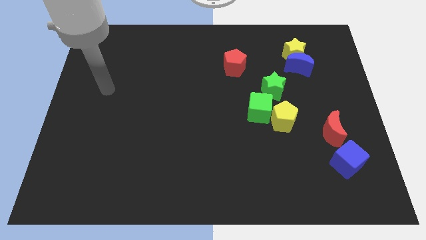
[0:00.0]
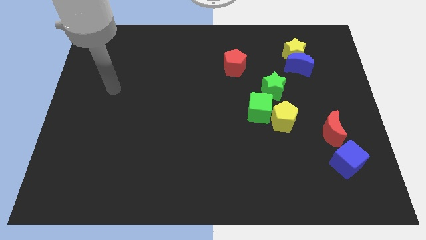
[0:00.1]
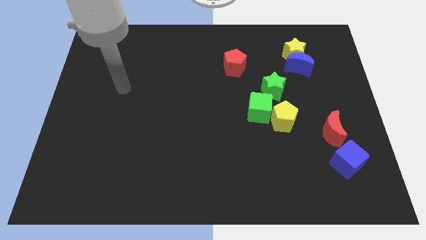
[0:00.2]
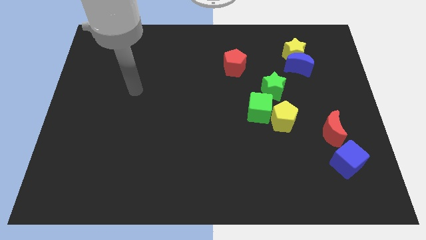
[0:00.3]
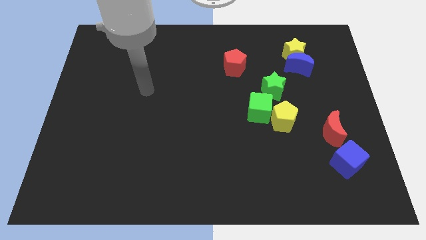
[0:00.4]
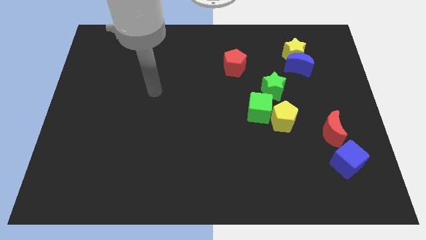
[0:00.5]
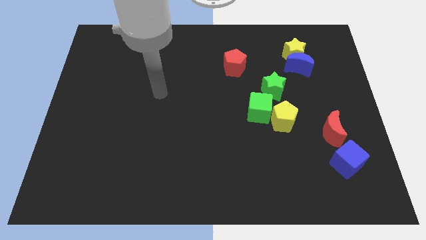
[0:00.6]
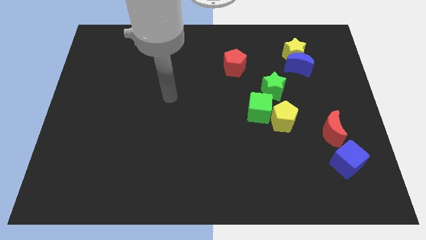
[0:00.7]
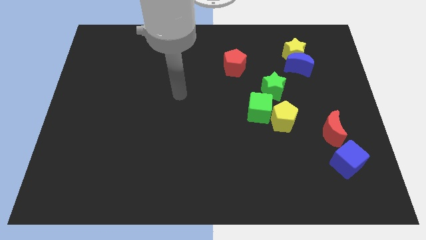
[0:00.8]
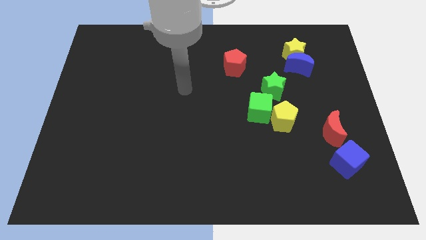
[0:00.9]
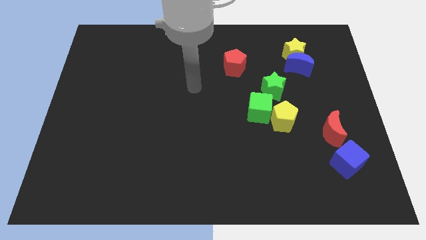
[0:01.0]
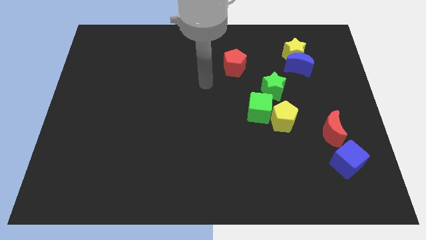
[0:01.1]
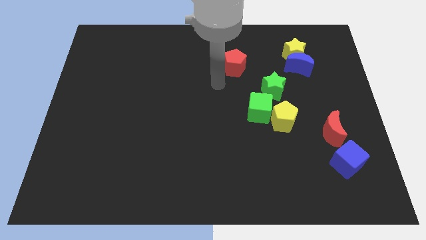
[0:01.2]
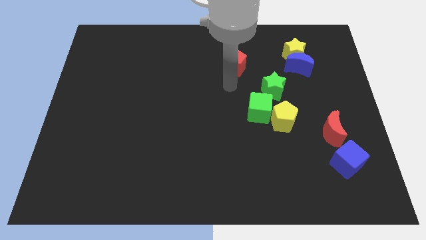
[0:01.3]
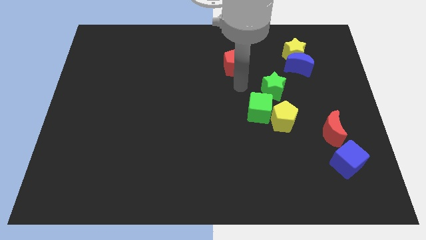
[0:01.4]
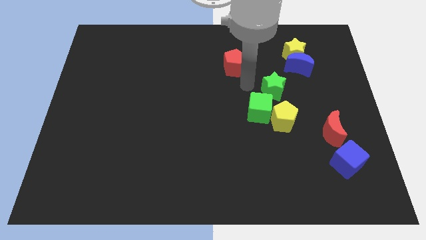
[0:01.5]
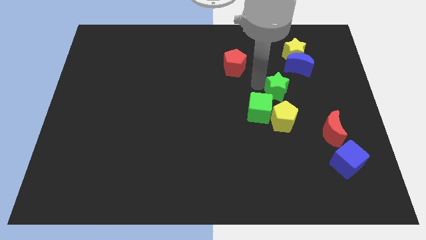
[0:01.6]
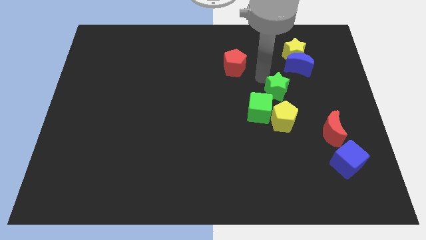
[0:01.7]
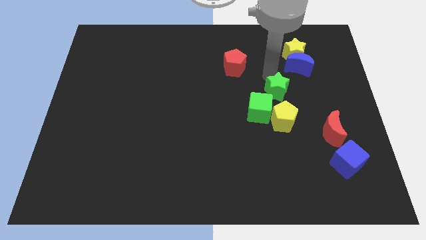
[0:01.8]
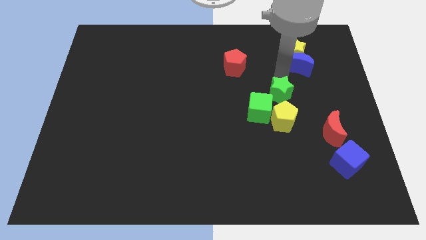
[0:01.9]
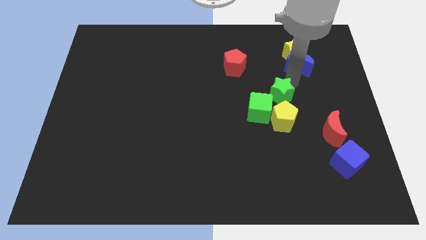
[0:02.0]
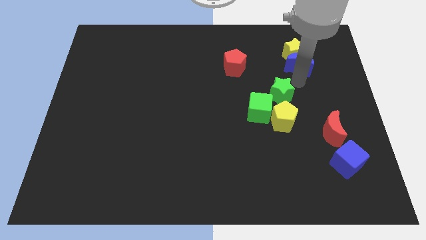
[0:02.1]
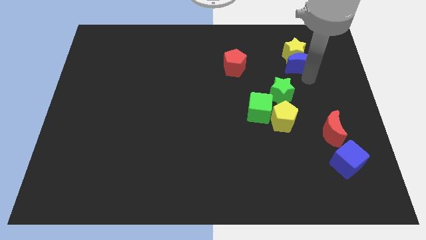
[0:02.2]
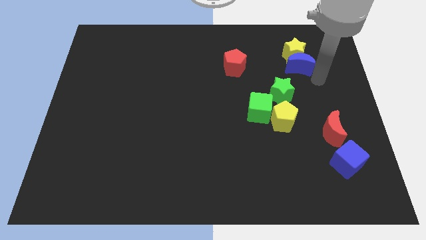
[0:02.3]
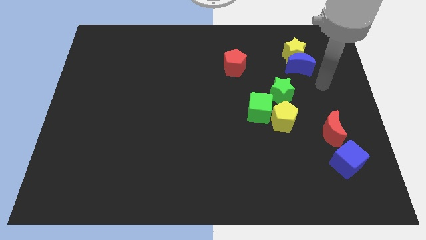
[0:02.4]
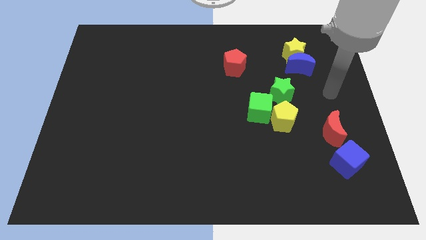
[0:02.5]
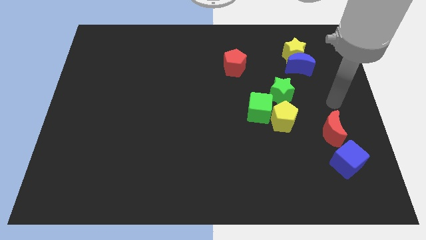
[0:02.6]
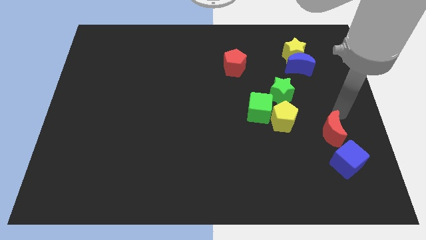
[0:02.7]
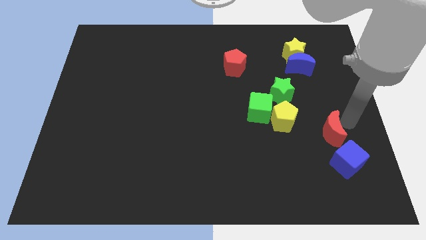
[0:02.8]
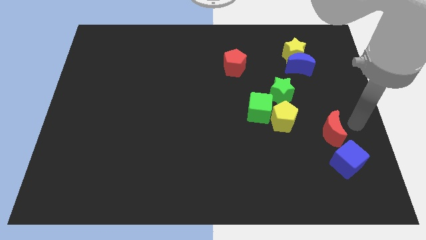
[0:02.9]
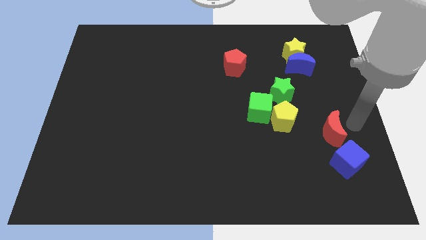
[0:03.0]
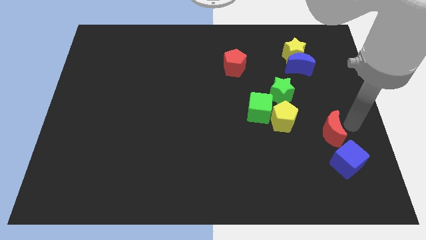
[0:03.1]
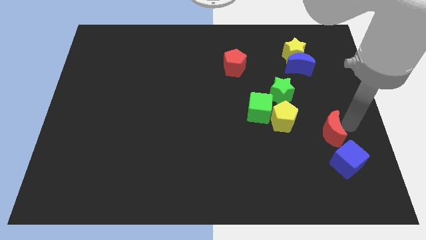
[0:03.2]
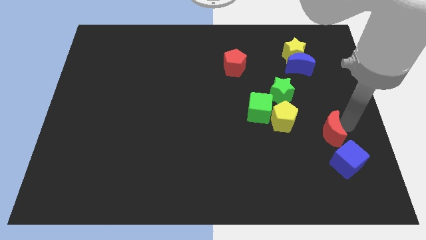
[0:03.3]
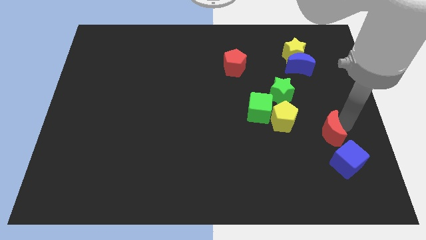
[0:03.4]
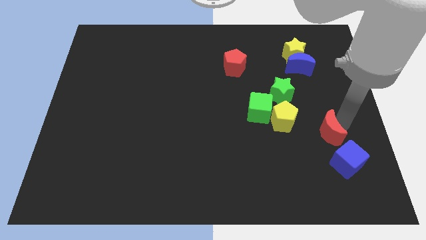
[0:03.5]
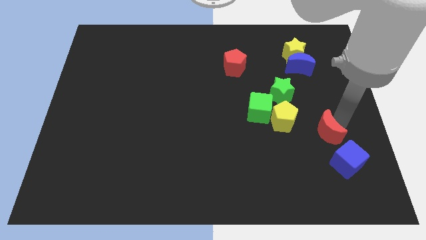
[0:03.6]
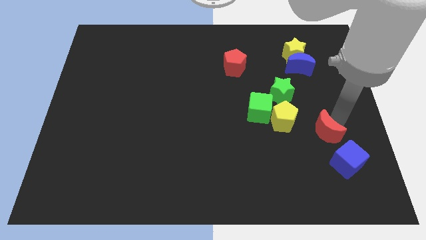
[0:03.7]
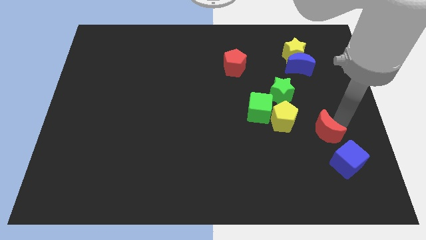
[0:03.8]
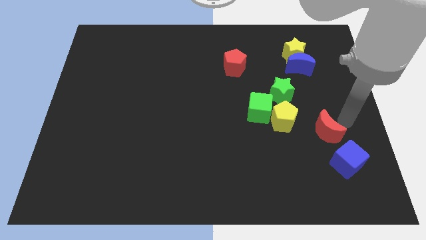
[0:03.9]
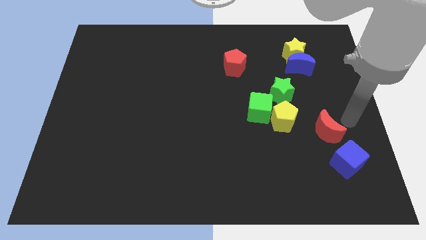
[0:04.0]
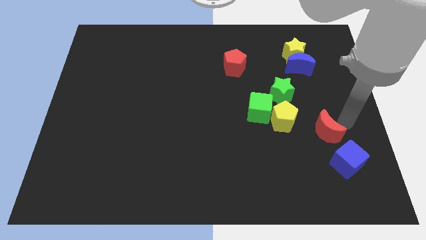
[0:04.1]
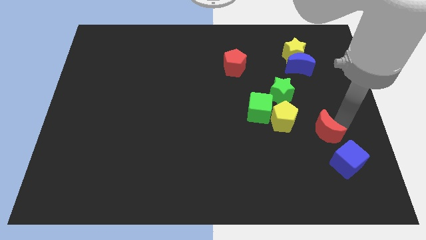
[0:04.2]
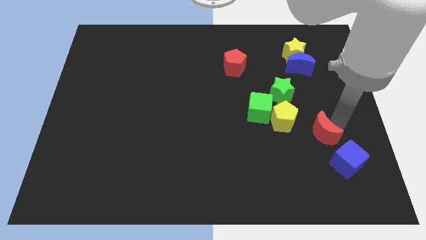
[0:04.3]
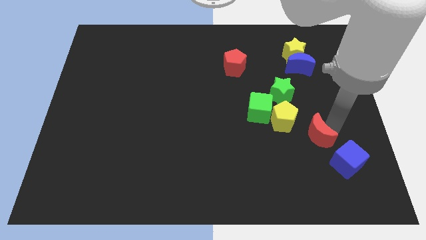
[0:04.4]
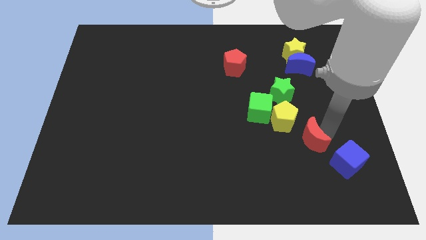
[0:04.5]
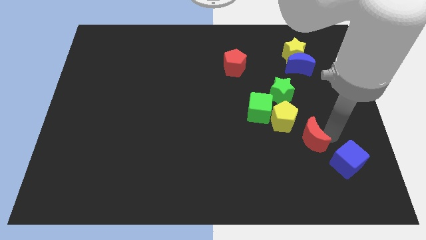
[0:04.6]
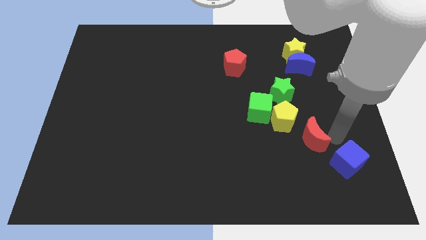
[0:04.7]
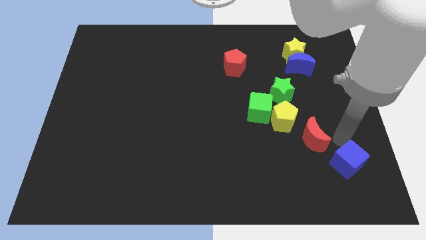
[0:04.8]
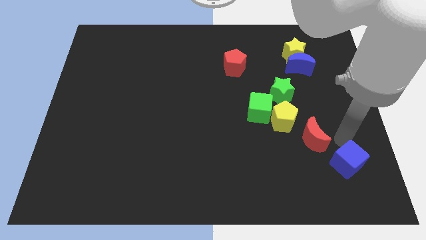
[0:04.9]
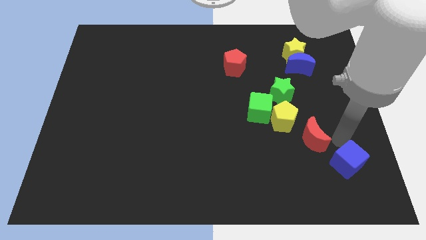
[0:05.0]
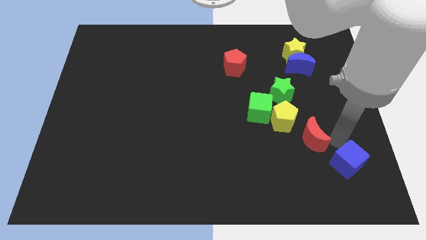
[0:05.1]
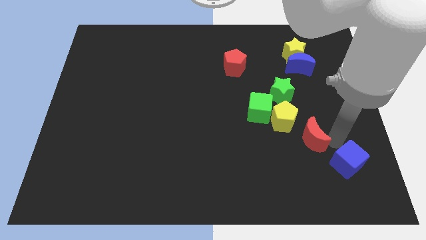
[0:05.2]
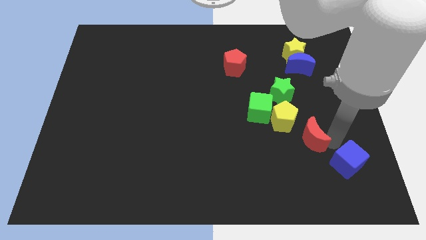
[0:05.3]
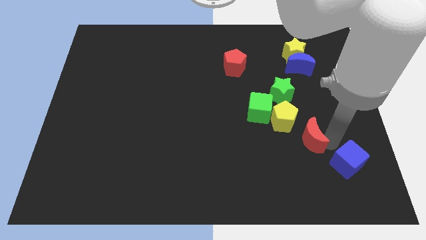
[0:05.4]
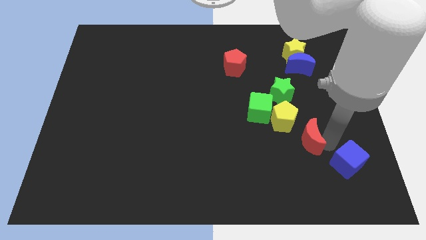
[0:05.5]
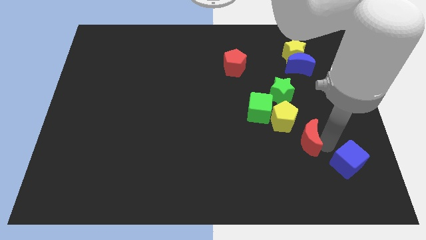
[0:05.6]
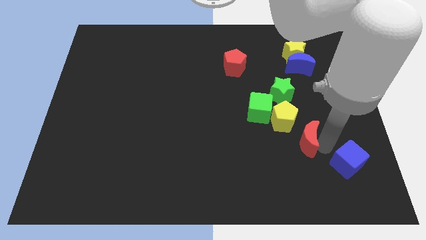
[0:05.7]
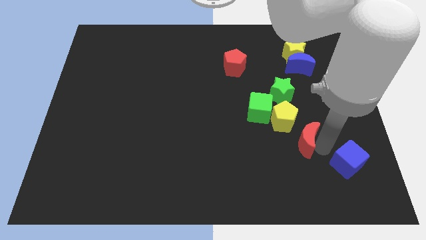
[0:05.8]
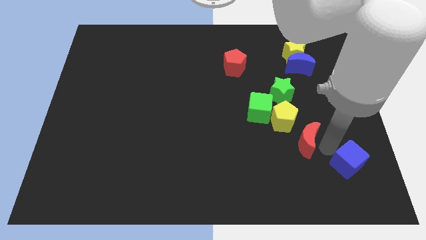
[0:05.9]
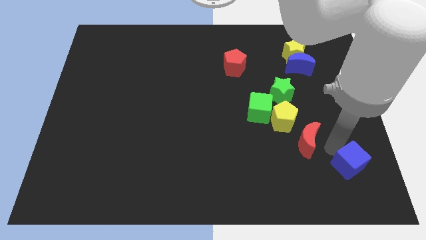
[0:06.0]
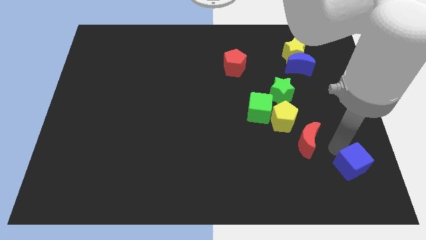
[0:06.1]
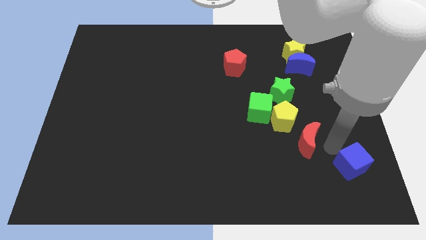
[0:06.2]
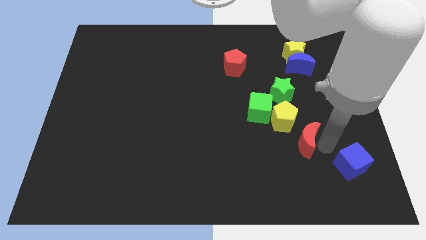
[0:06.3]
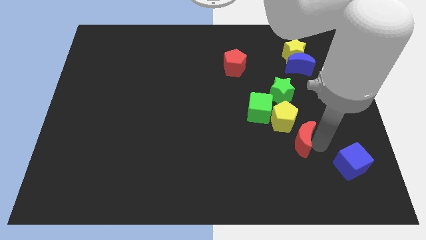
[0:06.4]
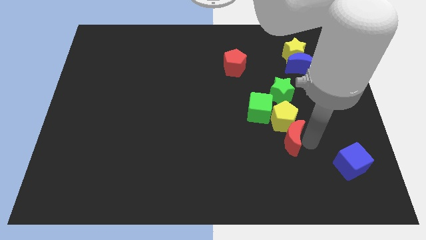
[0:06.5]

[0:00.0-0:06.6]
push the red moon left somewhat

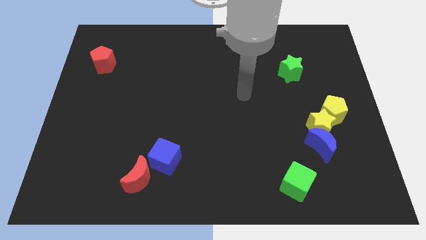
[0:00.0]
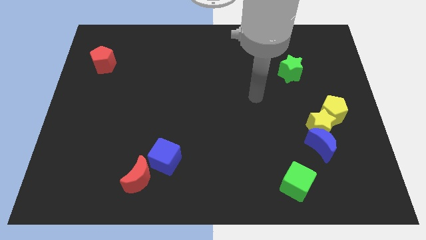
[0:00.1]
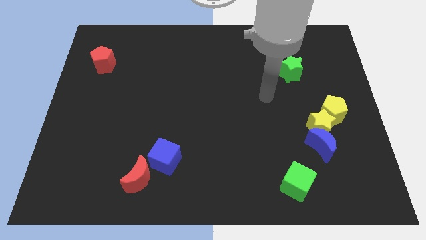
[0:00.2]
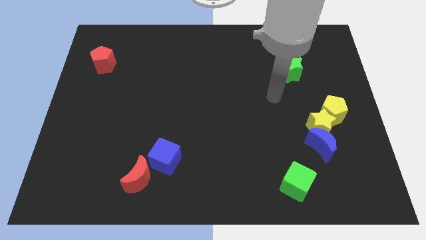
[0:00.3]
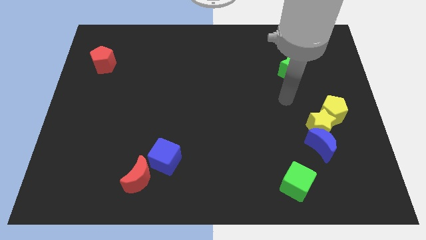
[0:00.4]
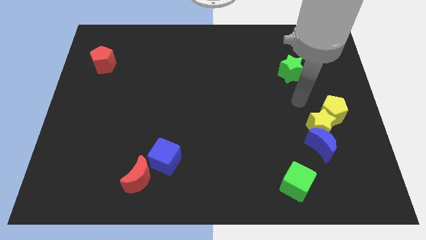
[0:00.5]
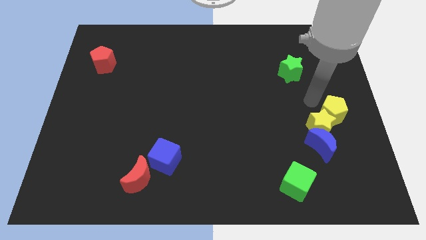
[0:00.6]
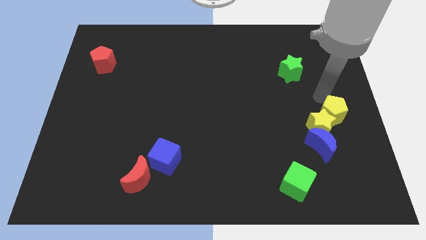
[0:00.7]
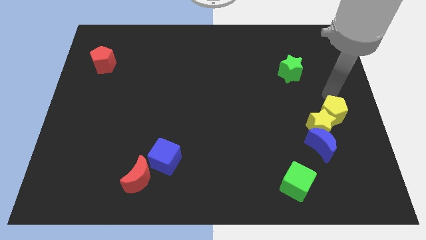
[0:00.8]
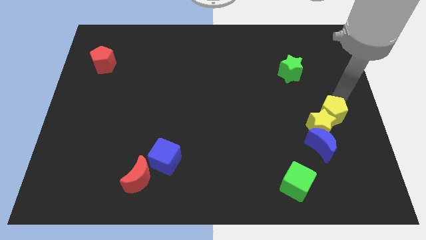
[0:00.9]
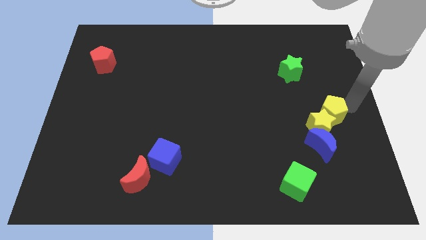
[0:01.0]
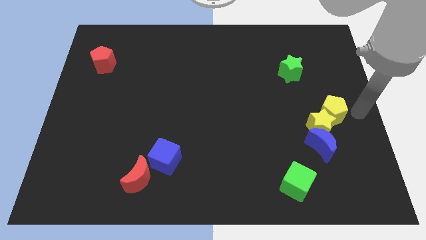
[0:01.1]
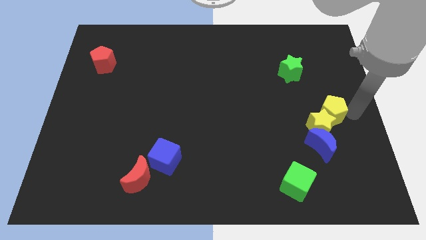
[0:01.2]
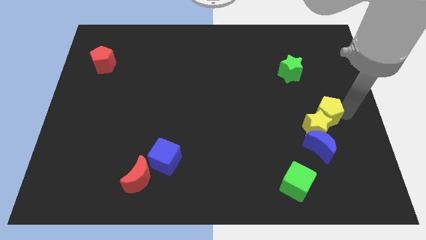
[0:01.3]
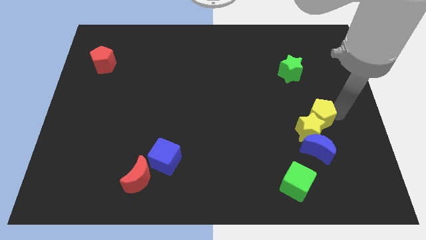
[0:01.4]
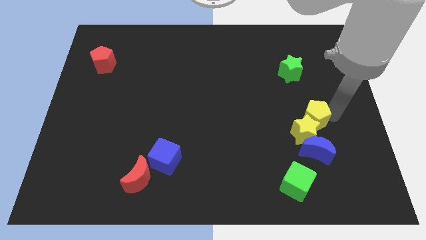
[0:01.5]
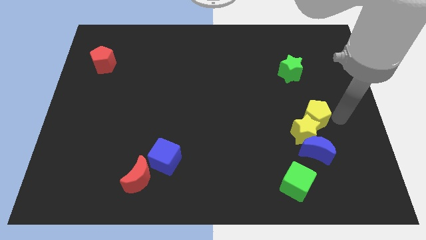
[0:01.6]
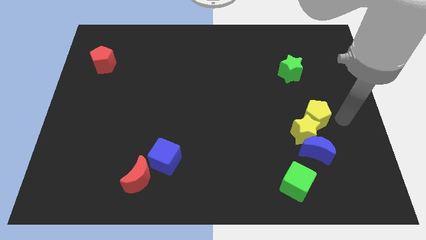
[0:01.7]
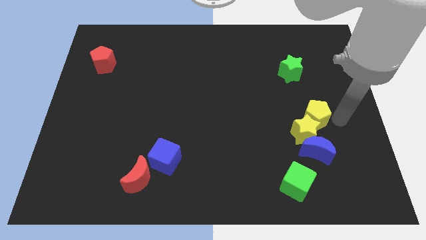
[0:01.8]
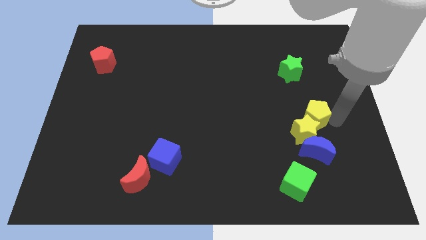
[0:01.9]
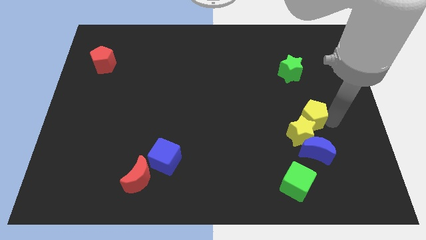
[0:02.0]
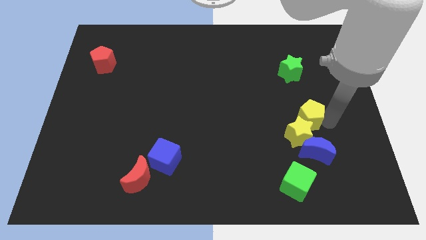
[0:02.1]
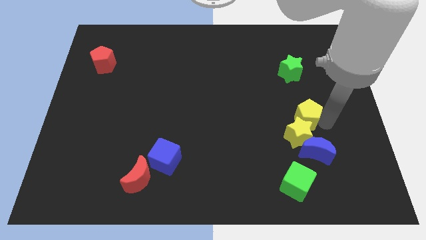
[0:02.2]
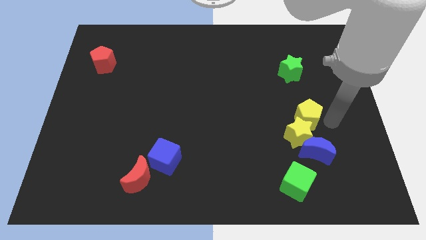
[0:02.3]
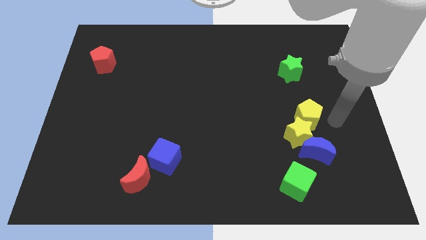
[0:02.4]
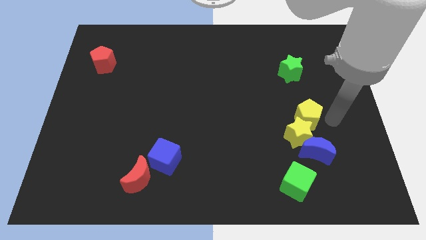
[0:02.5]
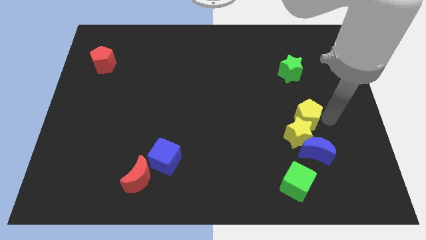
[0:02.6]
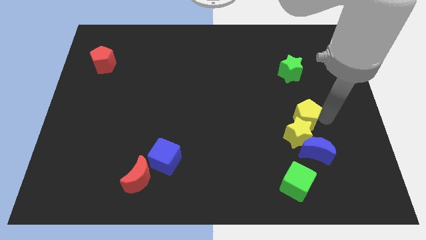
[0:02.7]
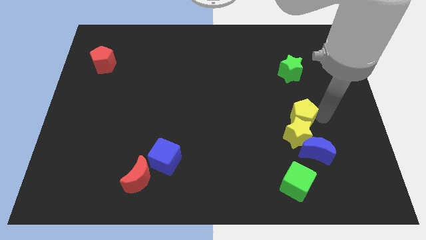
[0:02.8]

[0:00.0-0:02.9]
move the yellow pentagon to the left slightly
